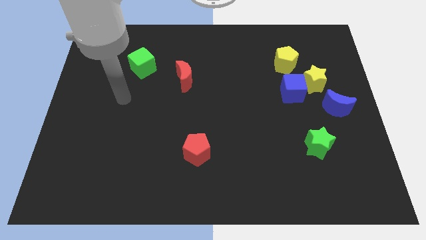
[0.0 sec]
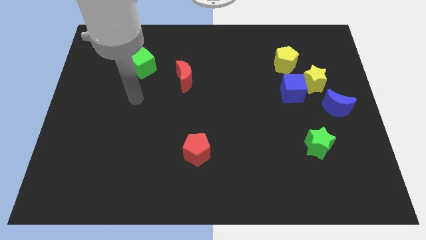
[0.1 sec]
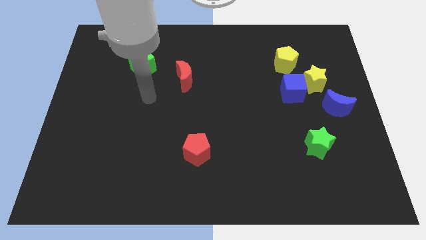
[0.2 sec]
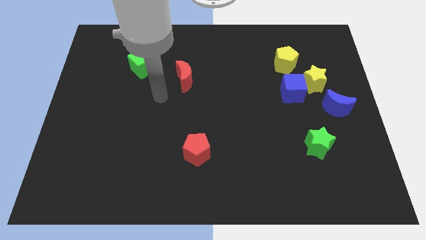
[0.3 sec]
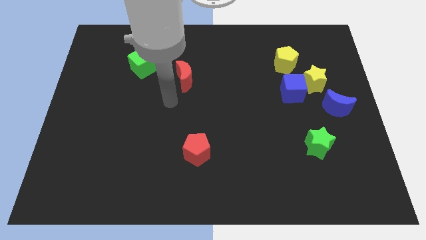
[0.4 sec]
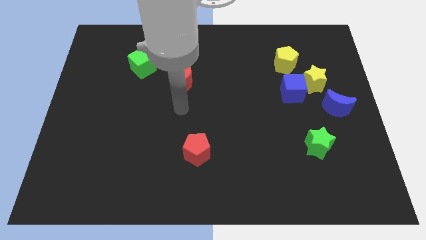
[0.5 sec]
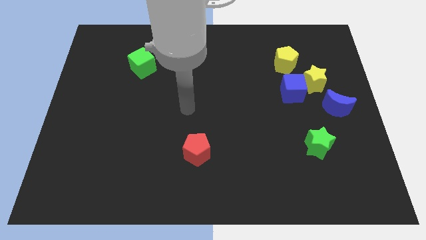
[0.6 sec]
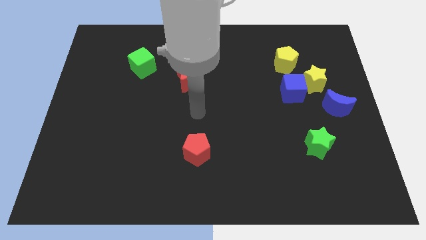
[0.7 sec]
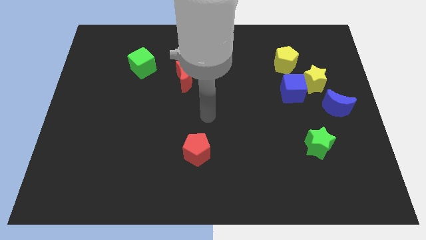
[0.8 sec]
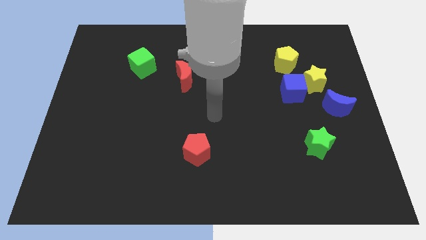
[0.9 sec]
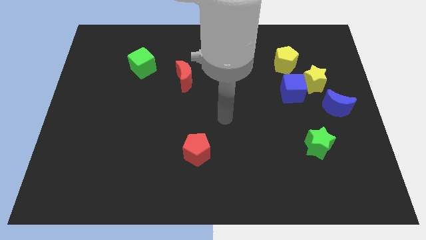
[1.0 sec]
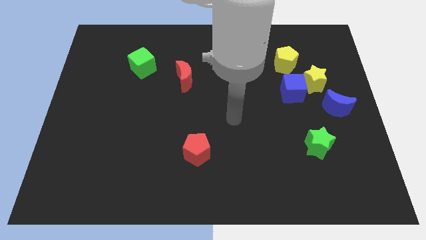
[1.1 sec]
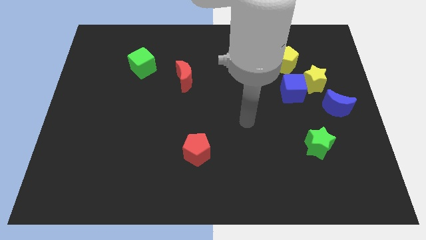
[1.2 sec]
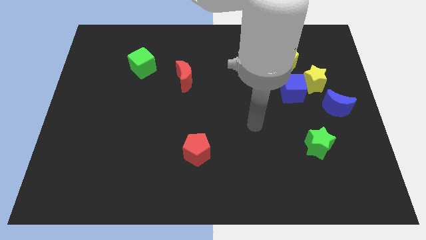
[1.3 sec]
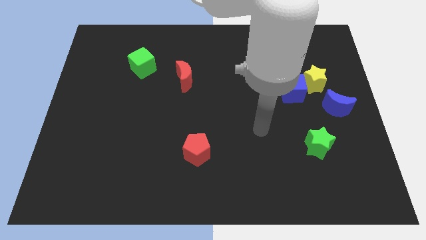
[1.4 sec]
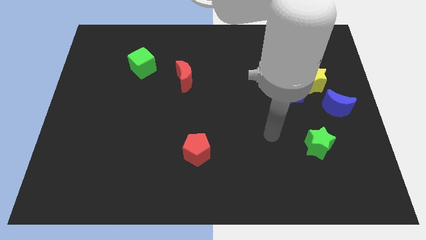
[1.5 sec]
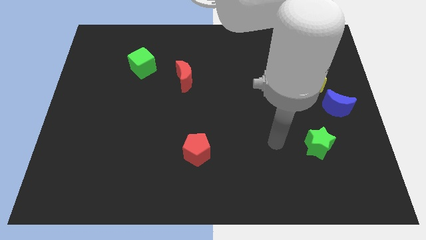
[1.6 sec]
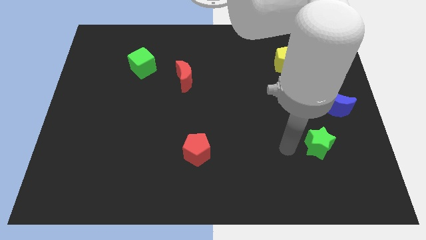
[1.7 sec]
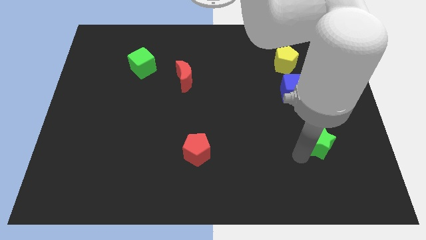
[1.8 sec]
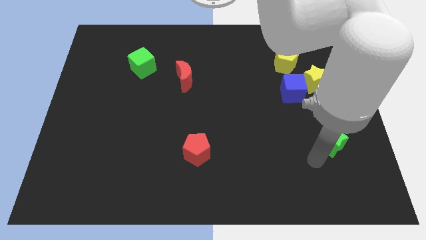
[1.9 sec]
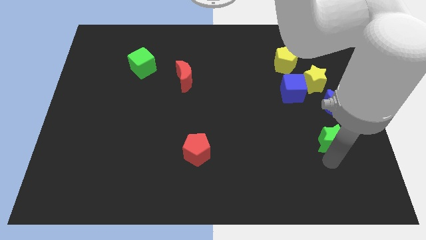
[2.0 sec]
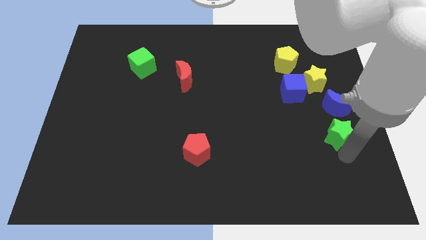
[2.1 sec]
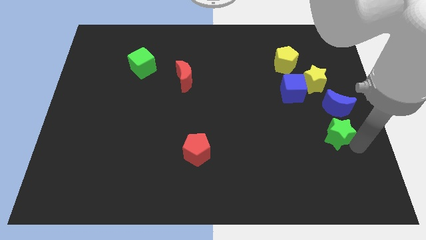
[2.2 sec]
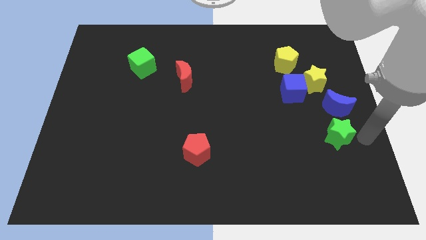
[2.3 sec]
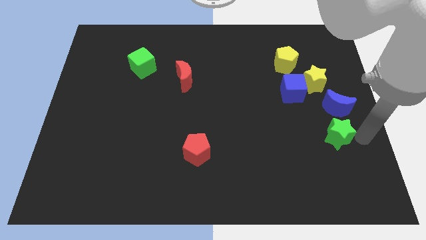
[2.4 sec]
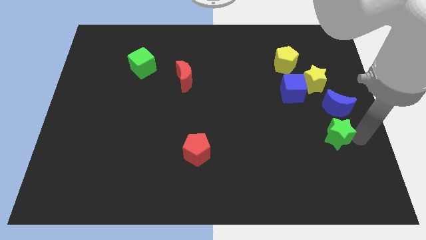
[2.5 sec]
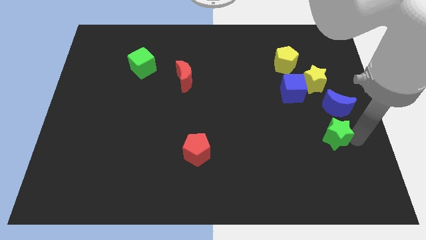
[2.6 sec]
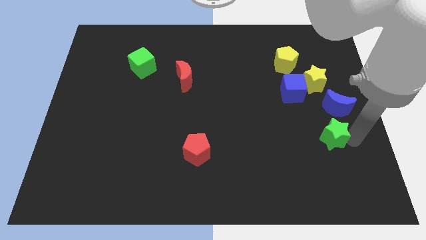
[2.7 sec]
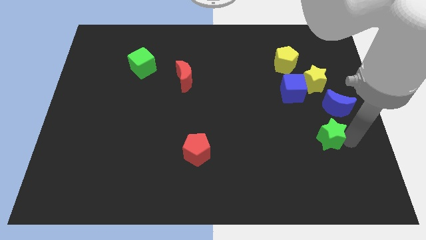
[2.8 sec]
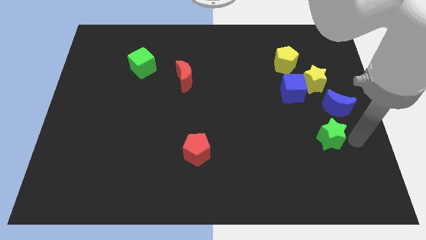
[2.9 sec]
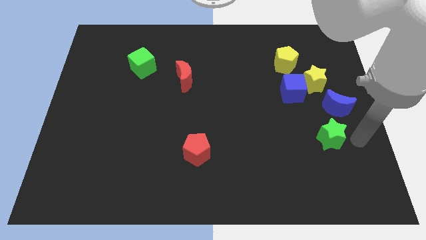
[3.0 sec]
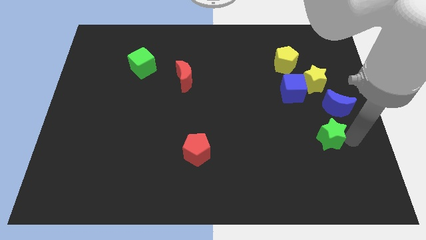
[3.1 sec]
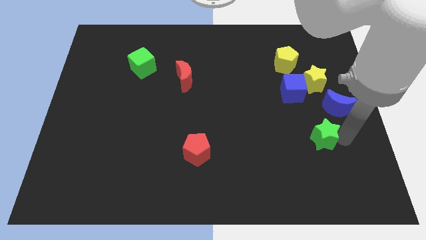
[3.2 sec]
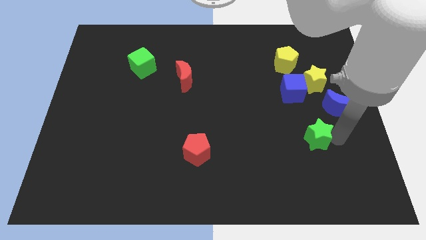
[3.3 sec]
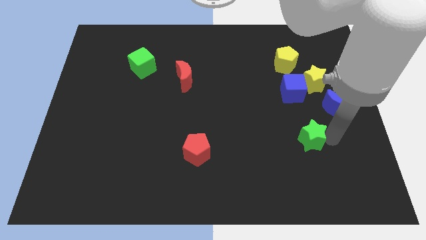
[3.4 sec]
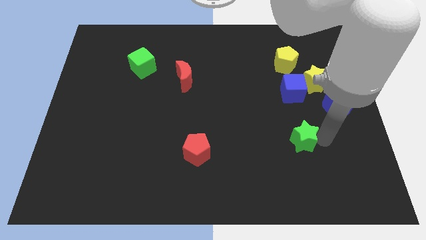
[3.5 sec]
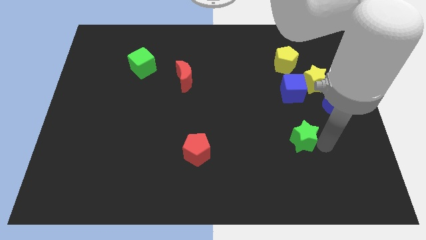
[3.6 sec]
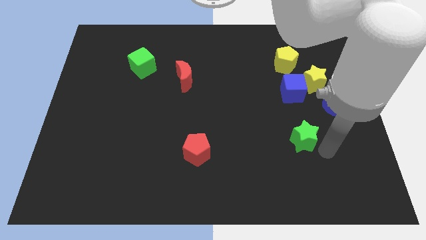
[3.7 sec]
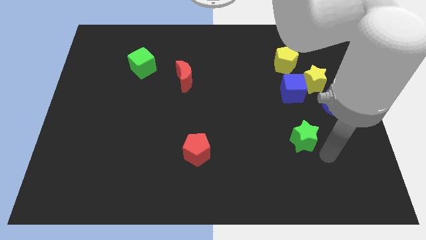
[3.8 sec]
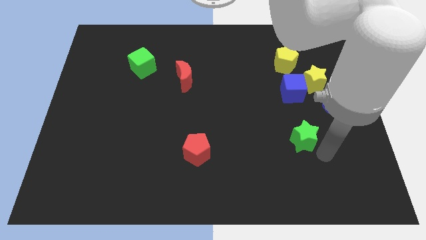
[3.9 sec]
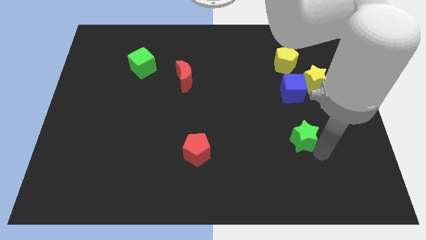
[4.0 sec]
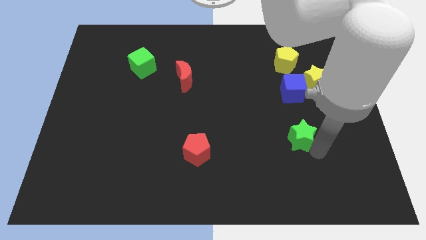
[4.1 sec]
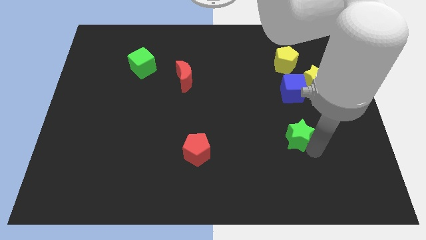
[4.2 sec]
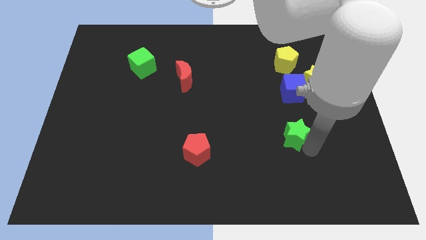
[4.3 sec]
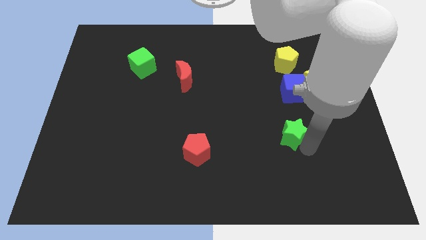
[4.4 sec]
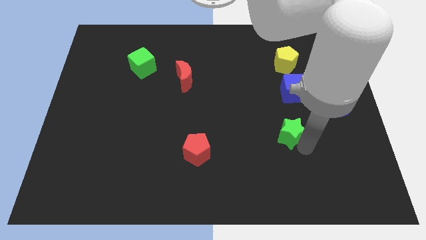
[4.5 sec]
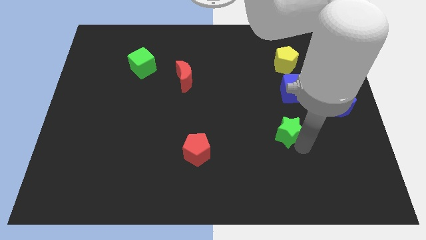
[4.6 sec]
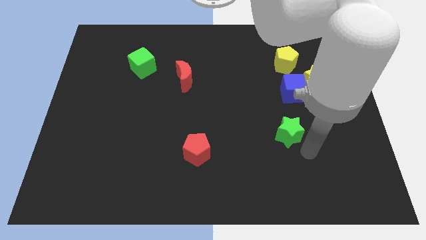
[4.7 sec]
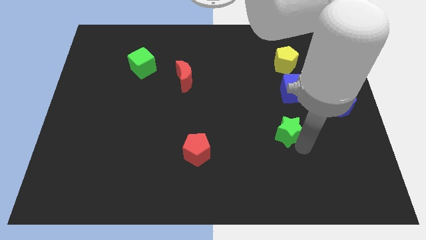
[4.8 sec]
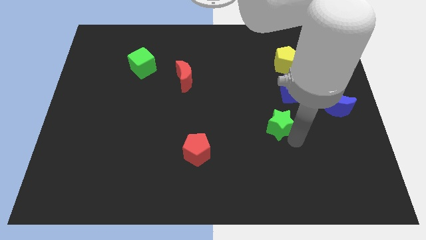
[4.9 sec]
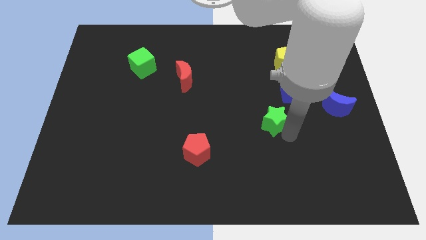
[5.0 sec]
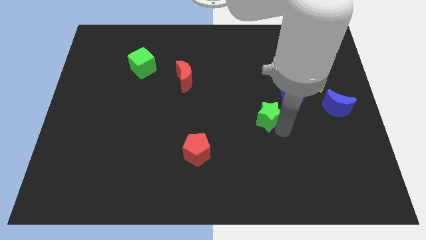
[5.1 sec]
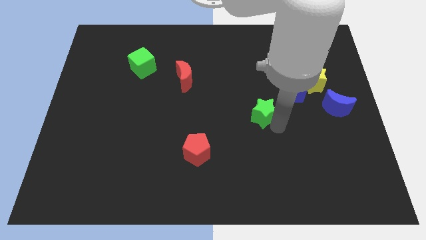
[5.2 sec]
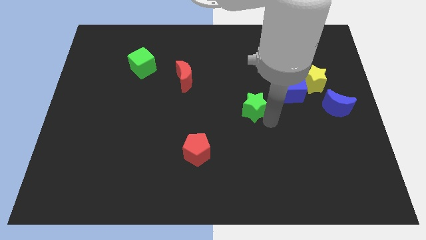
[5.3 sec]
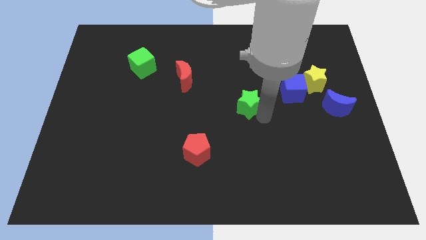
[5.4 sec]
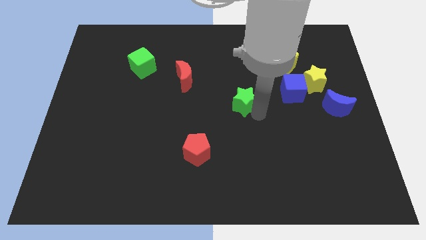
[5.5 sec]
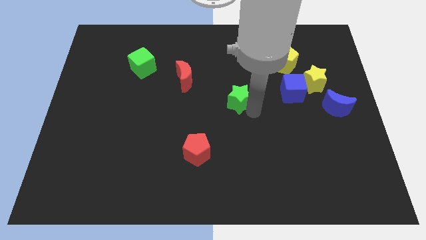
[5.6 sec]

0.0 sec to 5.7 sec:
slide the green star diagonally upwards and left

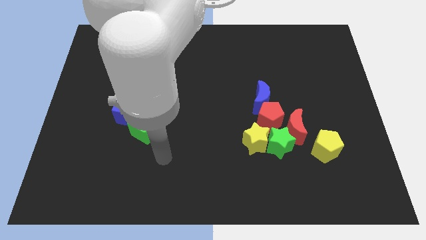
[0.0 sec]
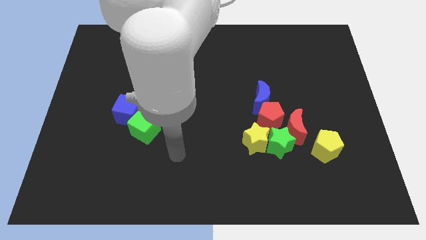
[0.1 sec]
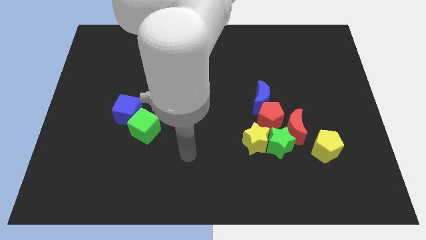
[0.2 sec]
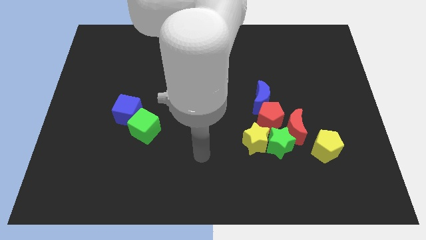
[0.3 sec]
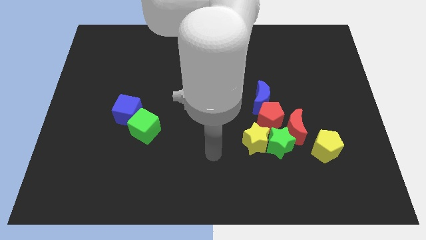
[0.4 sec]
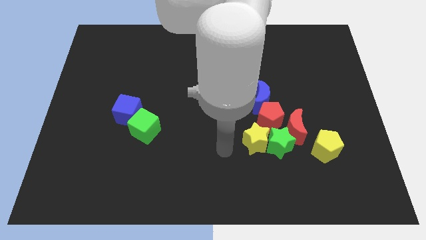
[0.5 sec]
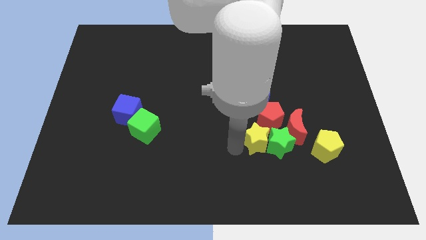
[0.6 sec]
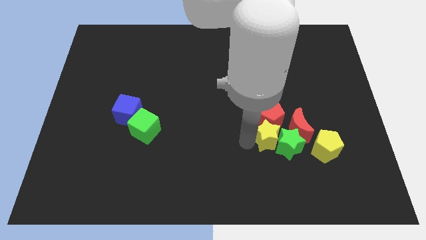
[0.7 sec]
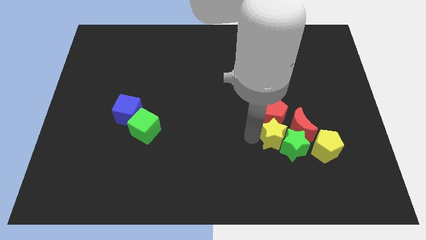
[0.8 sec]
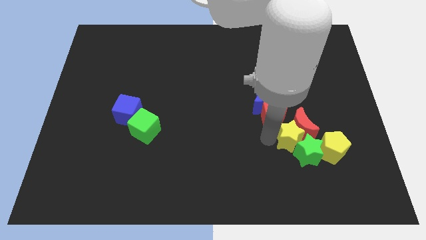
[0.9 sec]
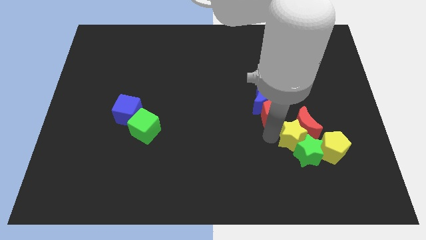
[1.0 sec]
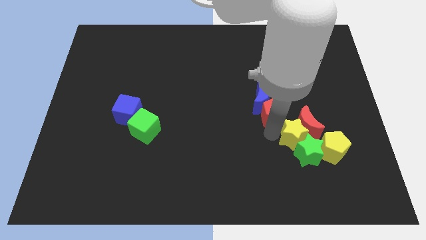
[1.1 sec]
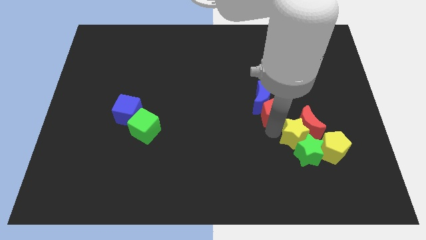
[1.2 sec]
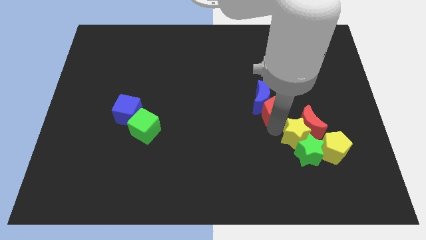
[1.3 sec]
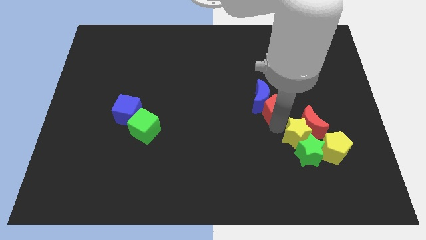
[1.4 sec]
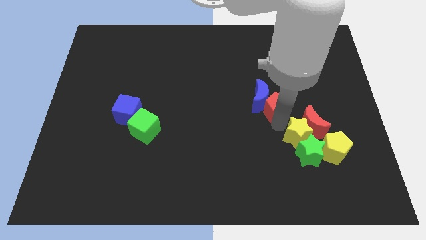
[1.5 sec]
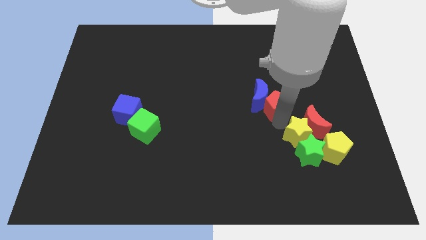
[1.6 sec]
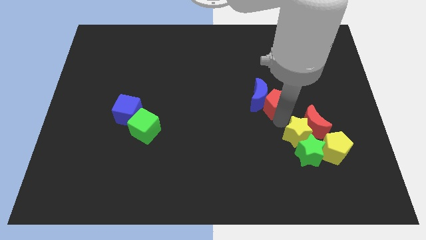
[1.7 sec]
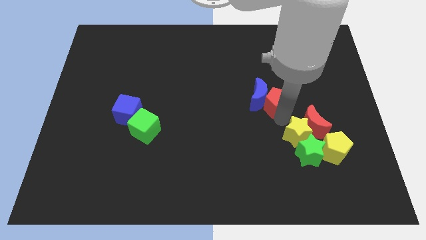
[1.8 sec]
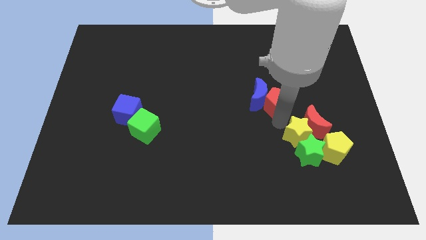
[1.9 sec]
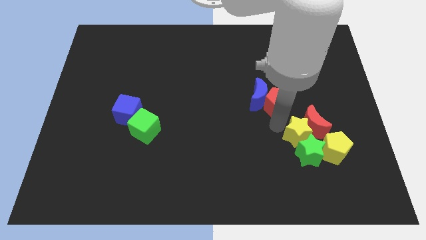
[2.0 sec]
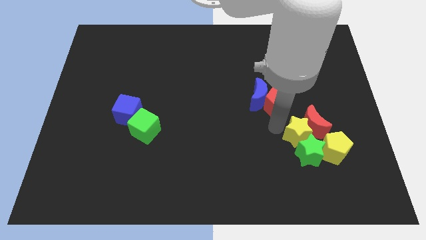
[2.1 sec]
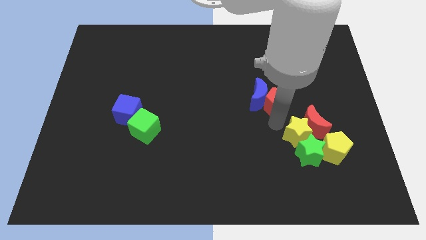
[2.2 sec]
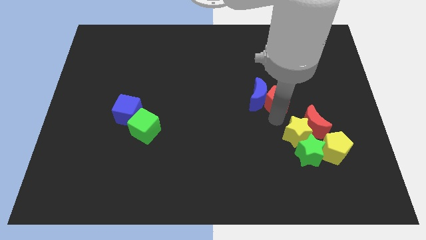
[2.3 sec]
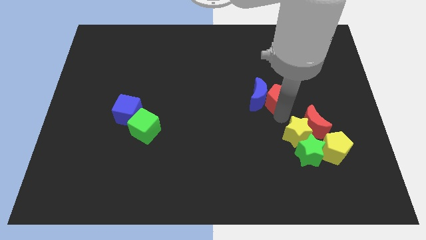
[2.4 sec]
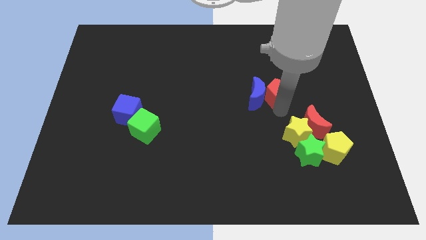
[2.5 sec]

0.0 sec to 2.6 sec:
slightly slide the red pentagon upwards
